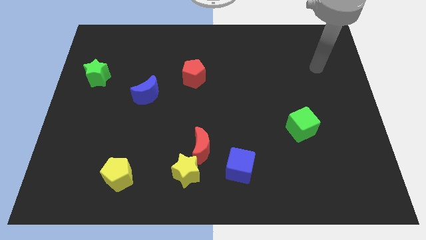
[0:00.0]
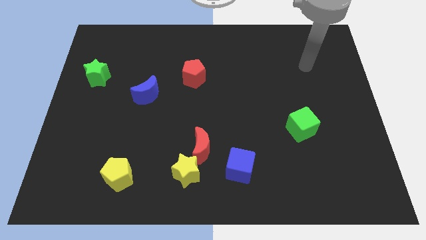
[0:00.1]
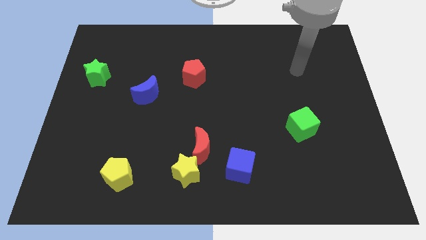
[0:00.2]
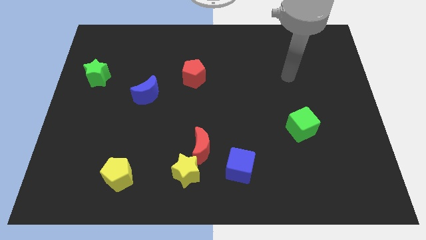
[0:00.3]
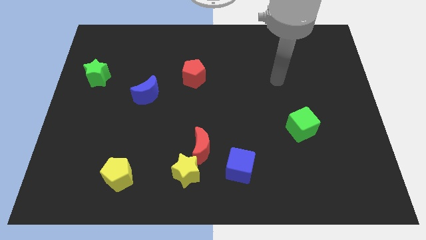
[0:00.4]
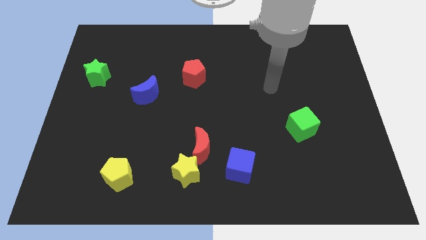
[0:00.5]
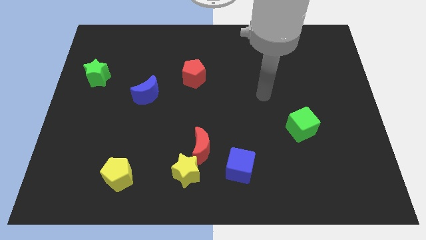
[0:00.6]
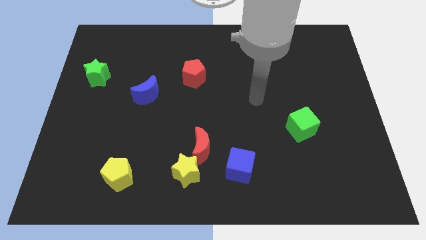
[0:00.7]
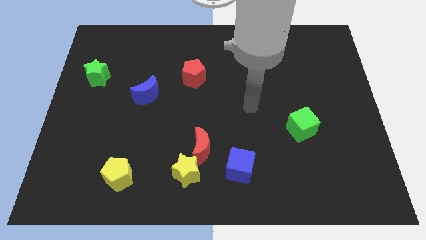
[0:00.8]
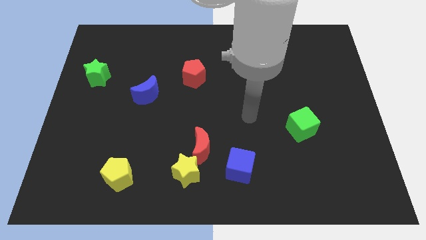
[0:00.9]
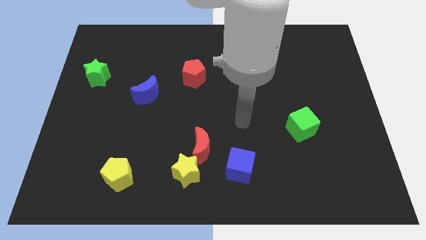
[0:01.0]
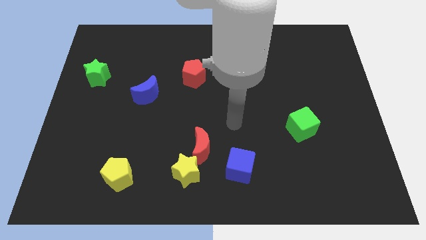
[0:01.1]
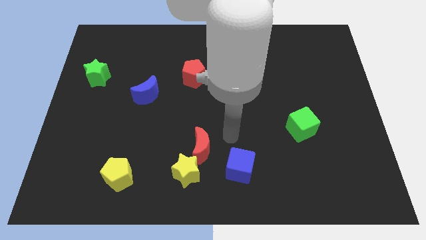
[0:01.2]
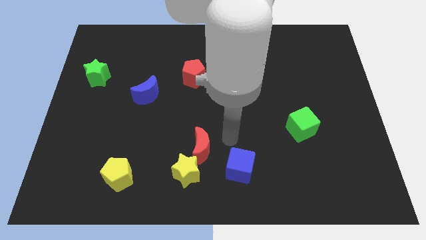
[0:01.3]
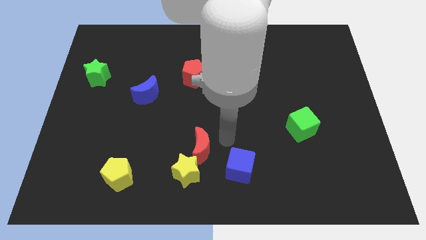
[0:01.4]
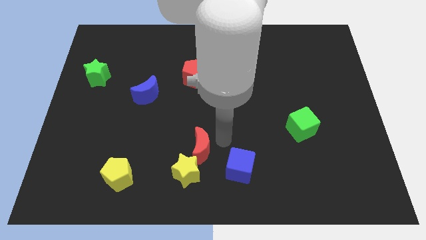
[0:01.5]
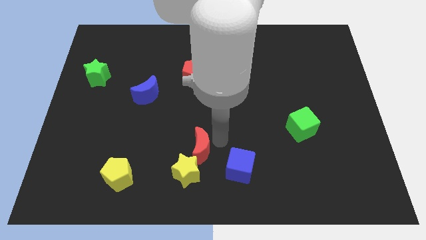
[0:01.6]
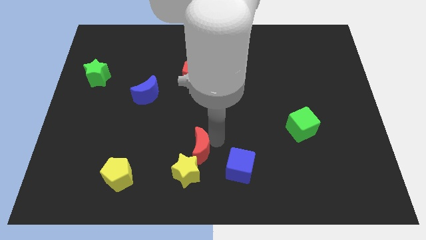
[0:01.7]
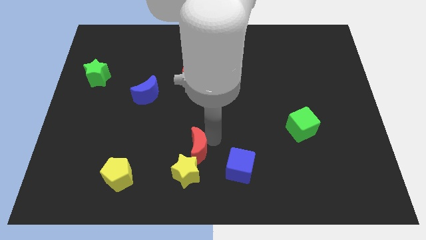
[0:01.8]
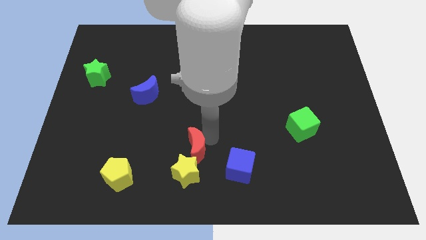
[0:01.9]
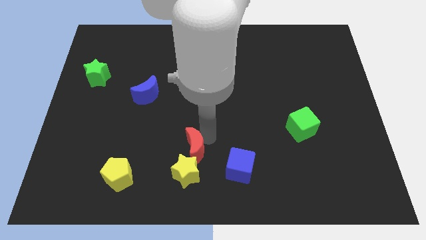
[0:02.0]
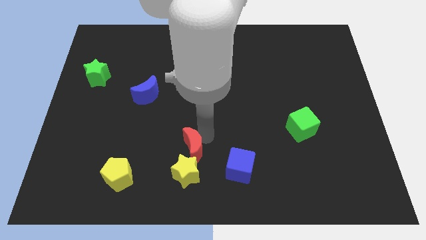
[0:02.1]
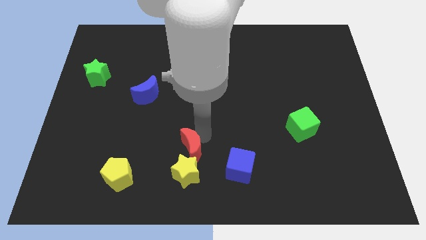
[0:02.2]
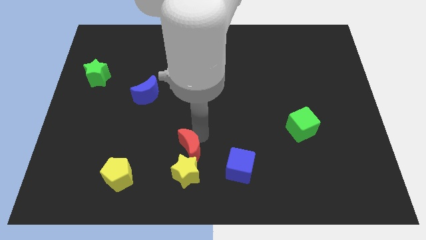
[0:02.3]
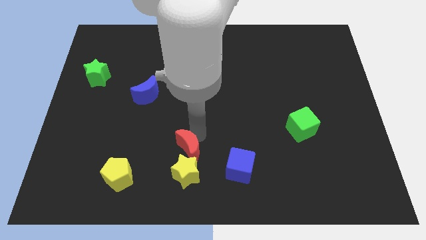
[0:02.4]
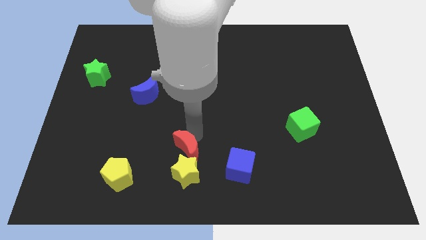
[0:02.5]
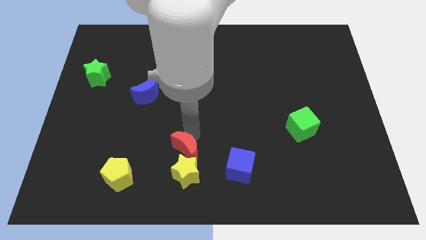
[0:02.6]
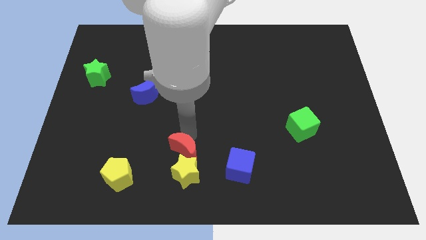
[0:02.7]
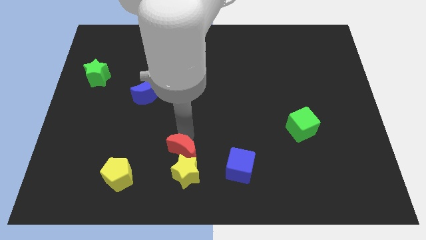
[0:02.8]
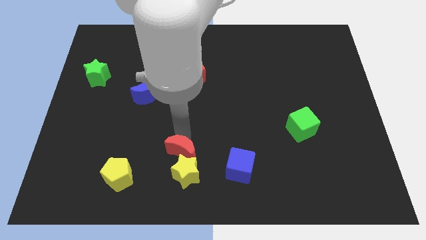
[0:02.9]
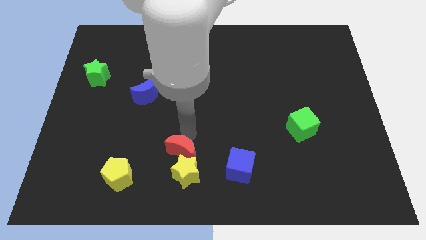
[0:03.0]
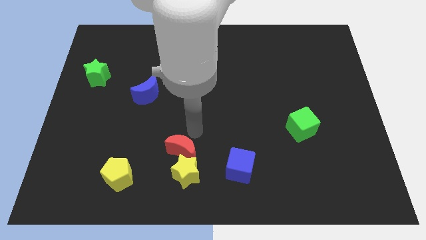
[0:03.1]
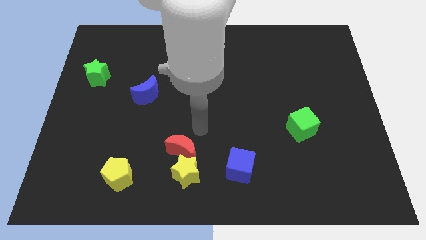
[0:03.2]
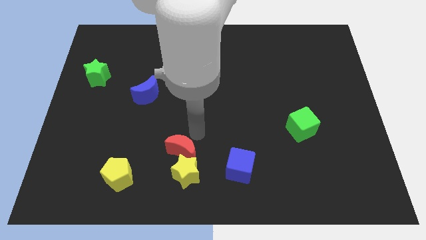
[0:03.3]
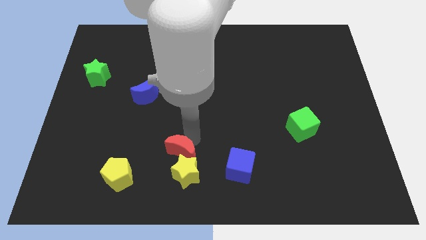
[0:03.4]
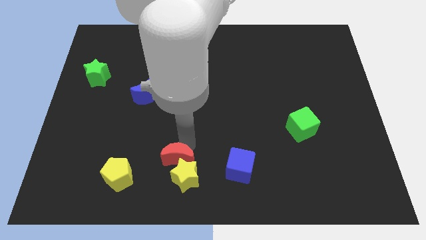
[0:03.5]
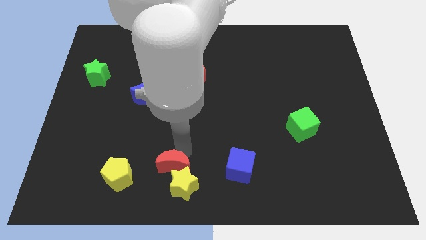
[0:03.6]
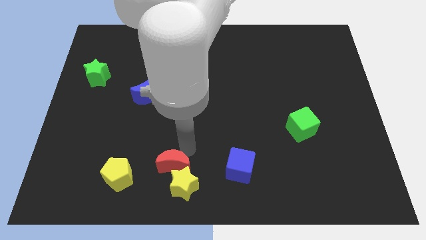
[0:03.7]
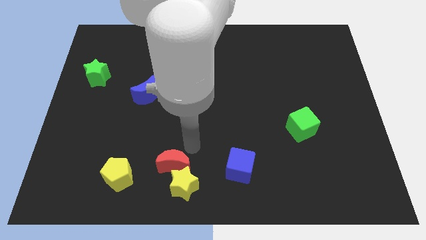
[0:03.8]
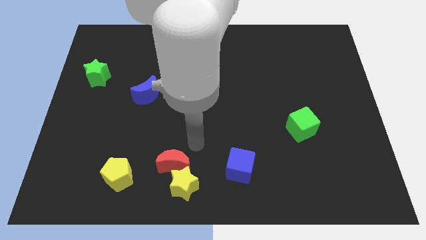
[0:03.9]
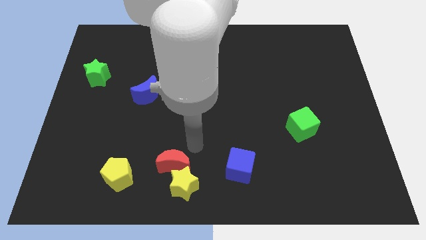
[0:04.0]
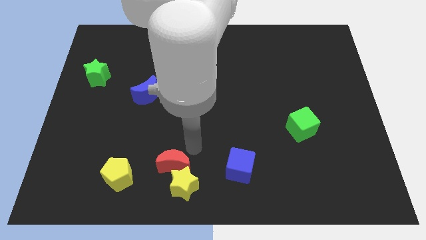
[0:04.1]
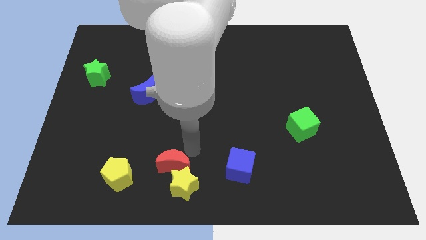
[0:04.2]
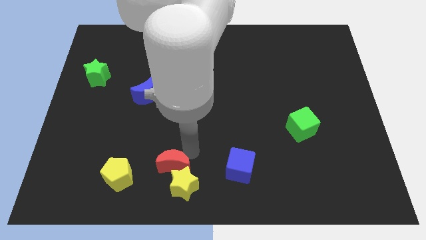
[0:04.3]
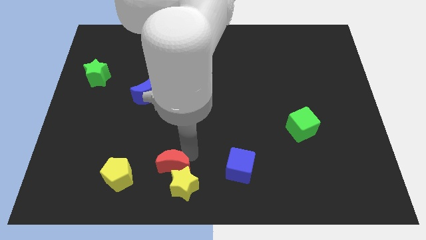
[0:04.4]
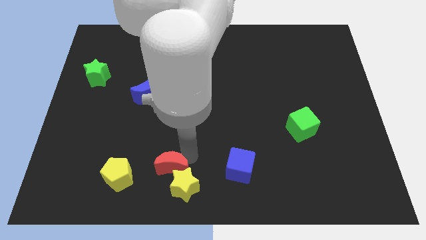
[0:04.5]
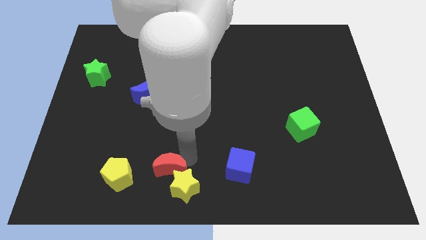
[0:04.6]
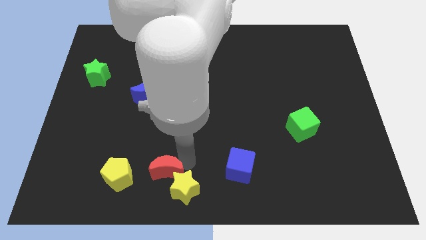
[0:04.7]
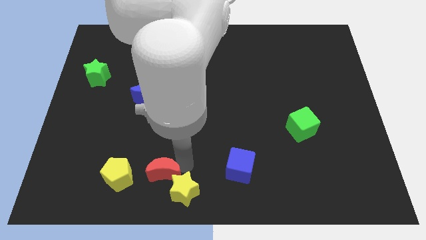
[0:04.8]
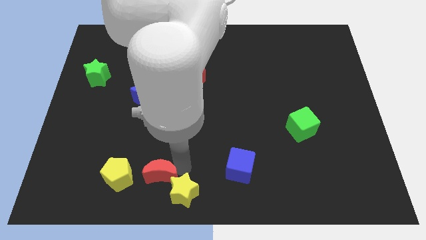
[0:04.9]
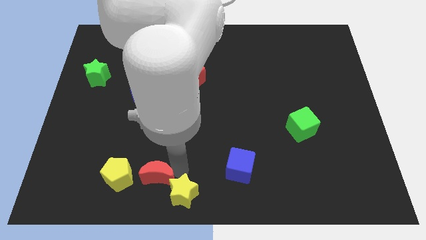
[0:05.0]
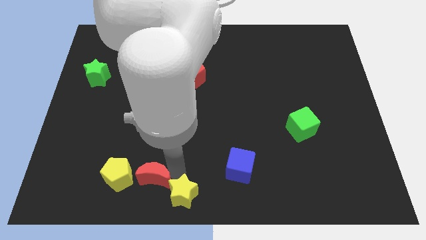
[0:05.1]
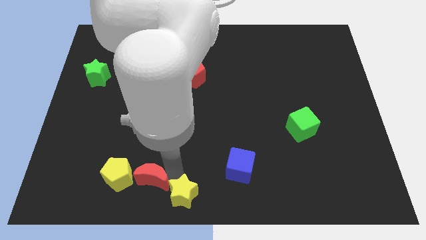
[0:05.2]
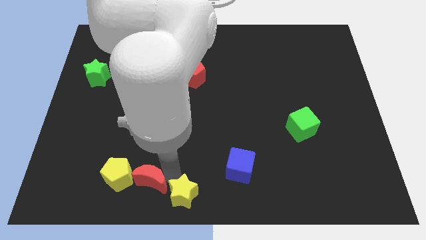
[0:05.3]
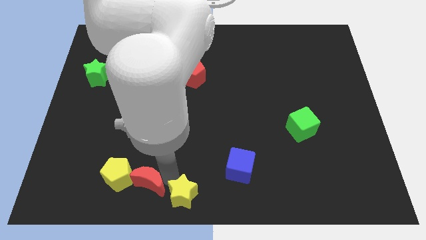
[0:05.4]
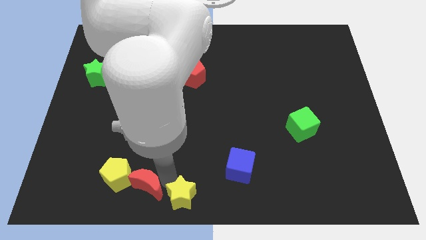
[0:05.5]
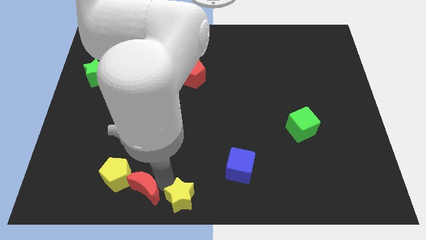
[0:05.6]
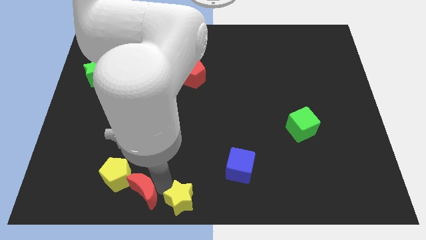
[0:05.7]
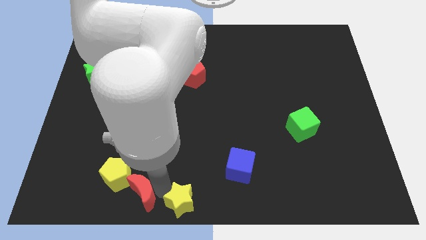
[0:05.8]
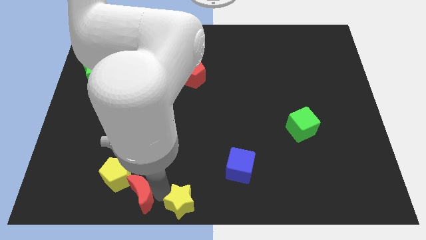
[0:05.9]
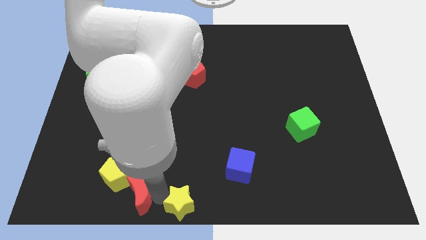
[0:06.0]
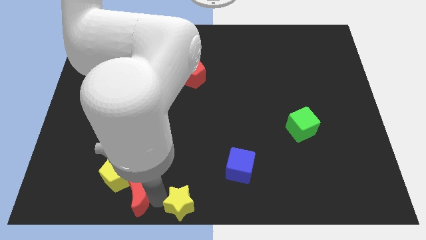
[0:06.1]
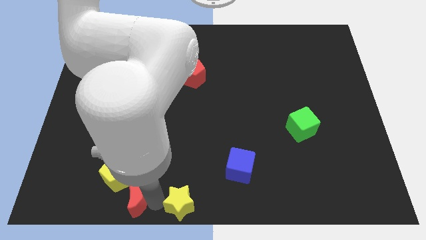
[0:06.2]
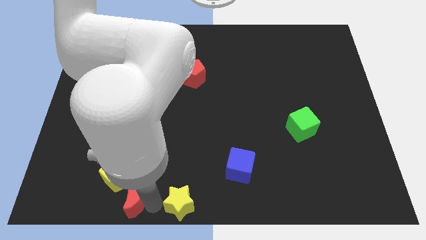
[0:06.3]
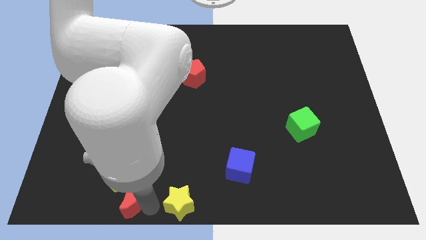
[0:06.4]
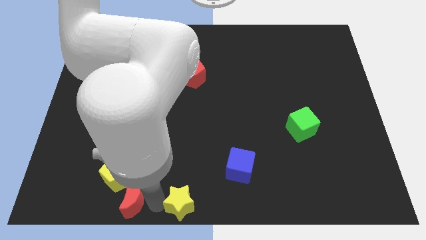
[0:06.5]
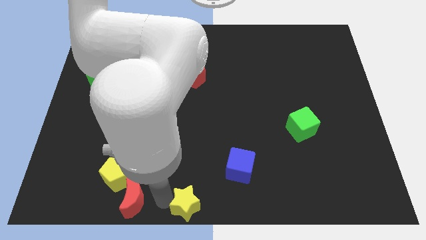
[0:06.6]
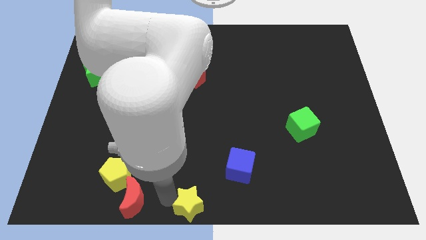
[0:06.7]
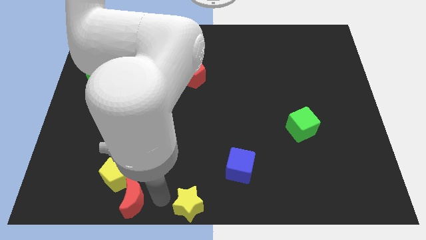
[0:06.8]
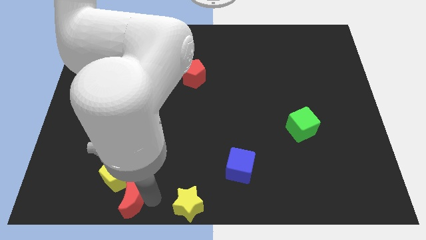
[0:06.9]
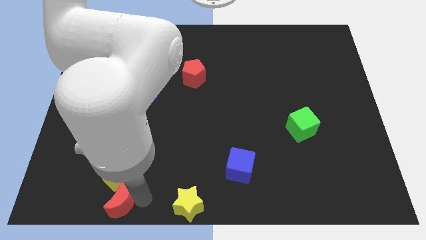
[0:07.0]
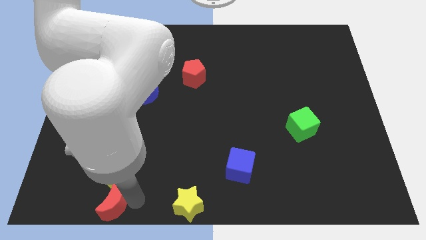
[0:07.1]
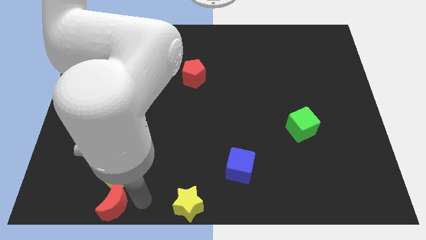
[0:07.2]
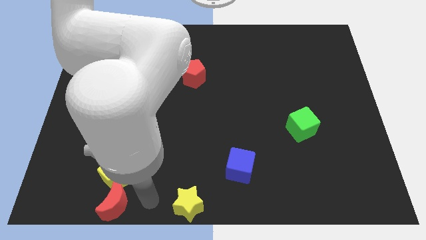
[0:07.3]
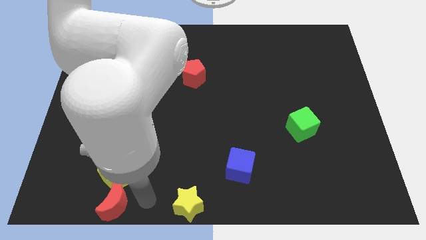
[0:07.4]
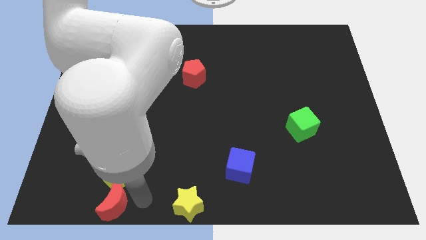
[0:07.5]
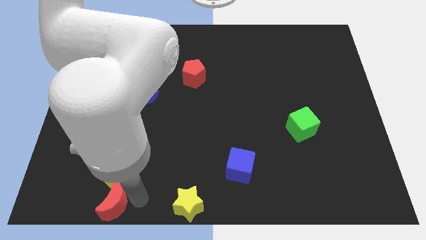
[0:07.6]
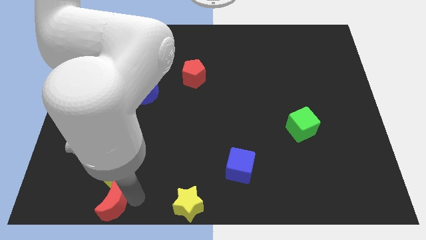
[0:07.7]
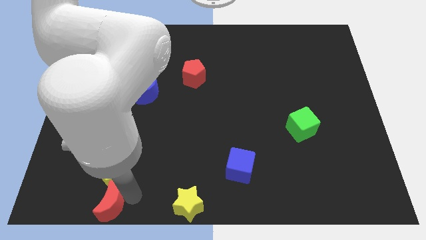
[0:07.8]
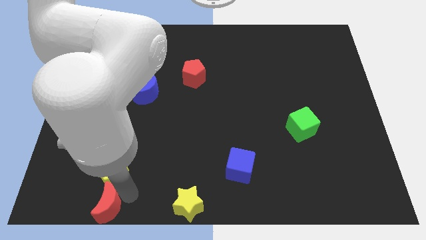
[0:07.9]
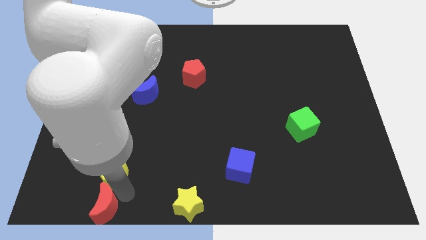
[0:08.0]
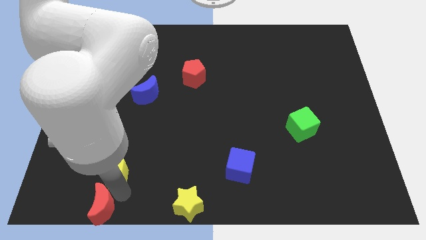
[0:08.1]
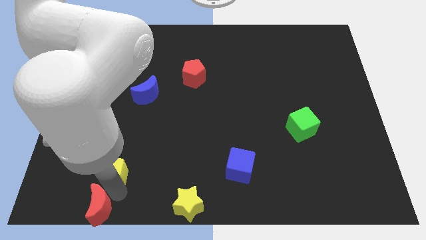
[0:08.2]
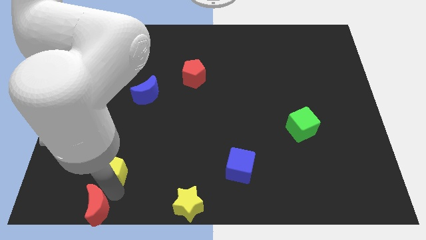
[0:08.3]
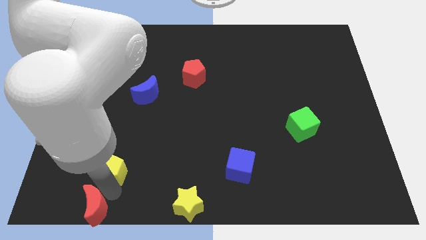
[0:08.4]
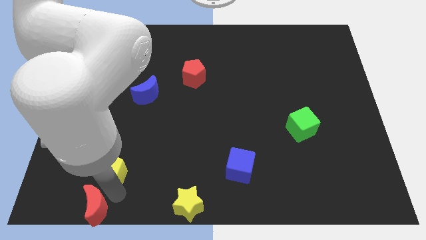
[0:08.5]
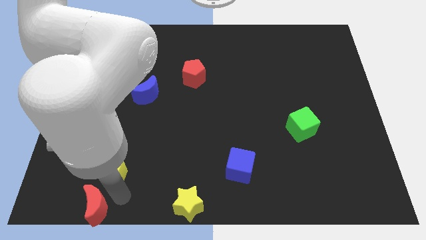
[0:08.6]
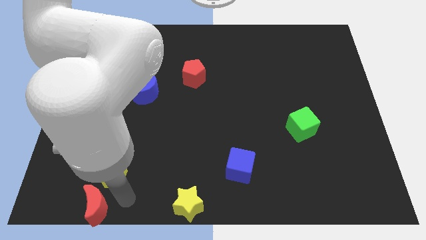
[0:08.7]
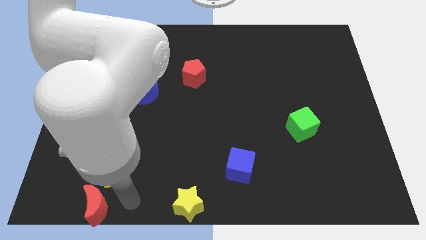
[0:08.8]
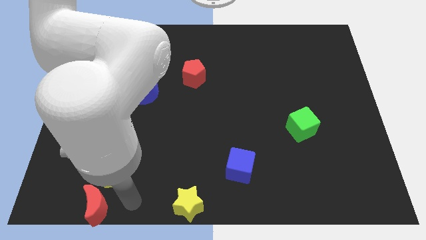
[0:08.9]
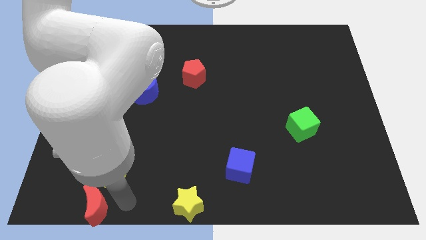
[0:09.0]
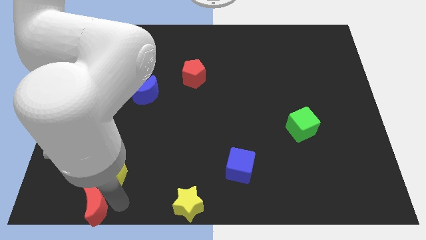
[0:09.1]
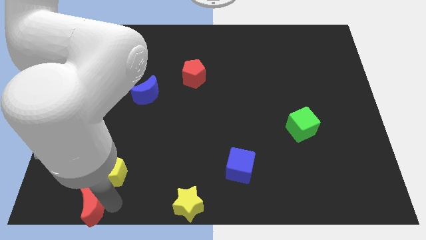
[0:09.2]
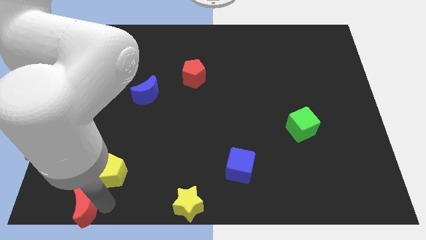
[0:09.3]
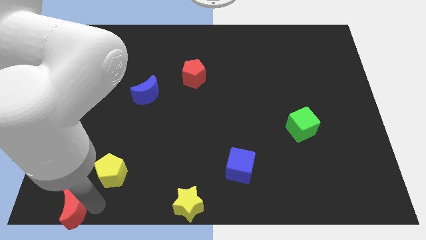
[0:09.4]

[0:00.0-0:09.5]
push the red moon to the bottom left
